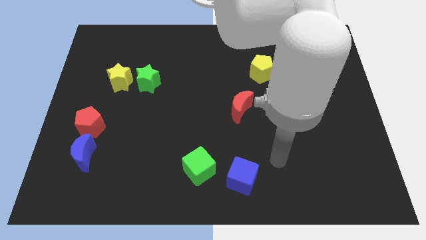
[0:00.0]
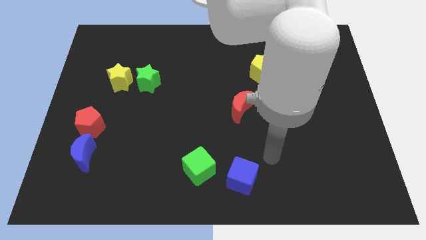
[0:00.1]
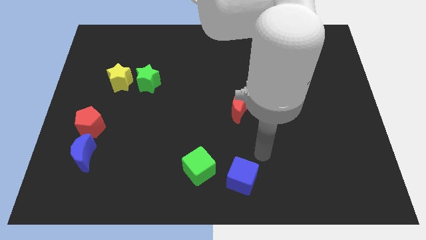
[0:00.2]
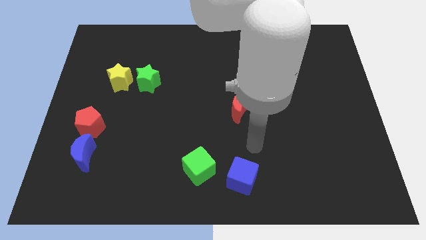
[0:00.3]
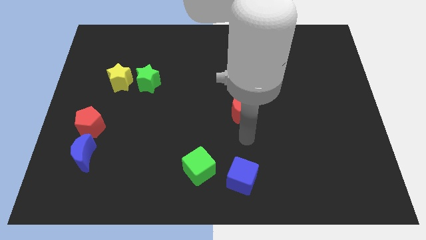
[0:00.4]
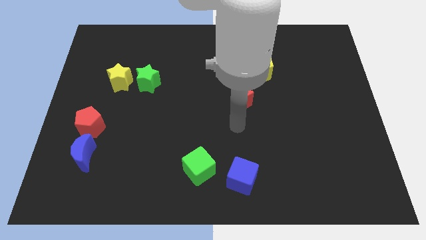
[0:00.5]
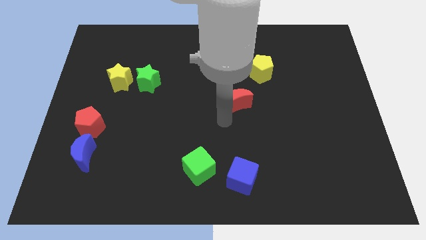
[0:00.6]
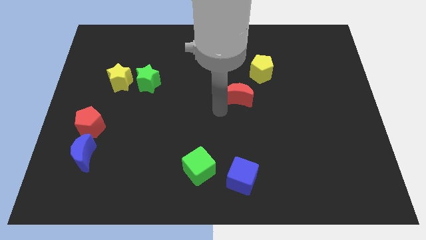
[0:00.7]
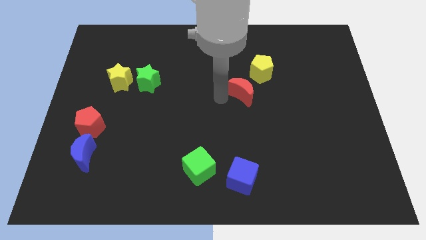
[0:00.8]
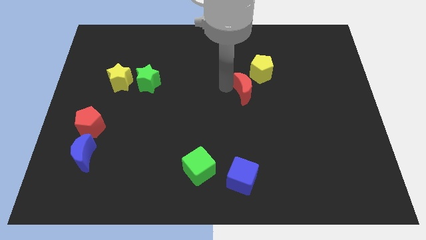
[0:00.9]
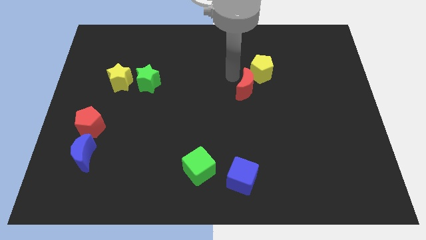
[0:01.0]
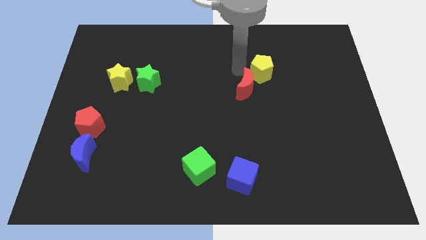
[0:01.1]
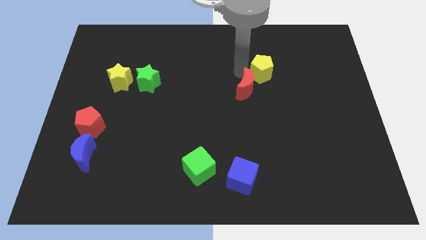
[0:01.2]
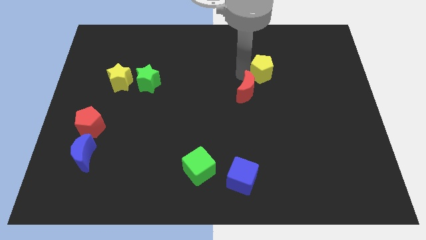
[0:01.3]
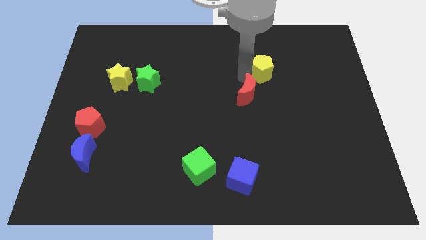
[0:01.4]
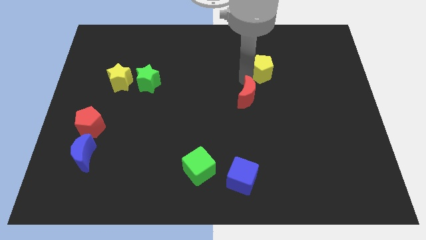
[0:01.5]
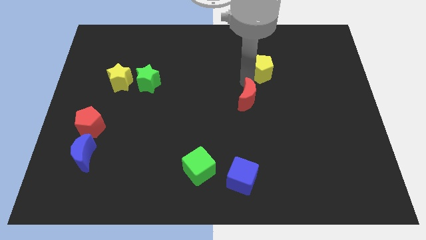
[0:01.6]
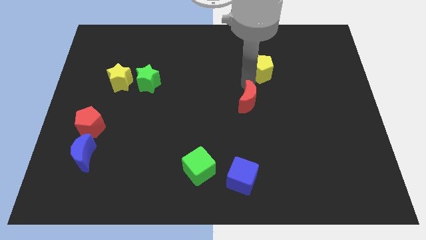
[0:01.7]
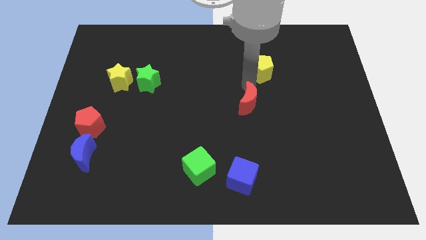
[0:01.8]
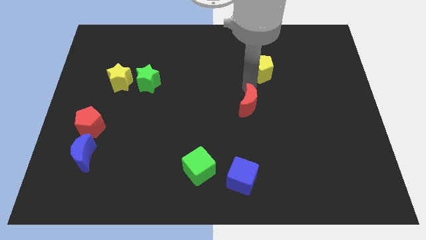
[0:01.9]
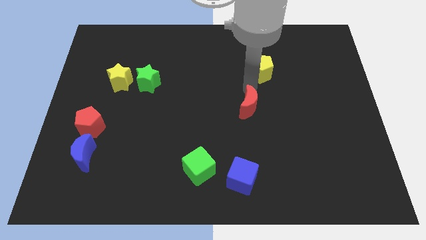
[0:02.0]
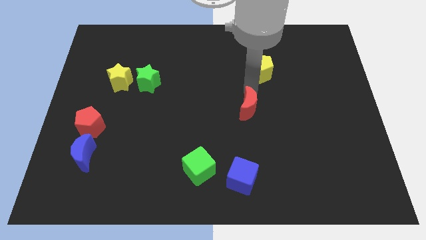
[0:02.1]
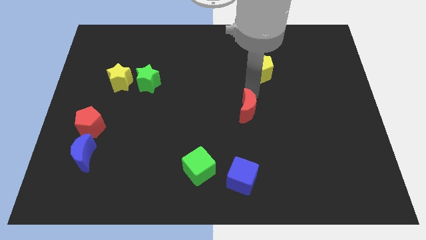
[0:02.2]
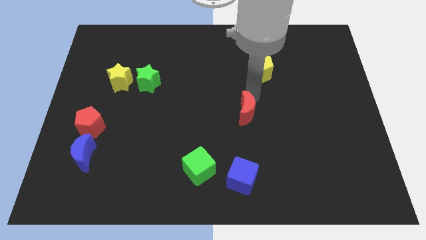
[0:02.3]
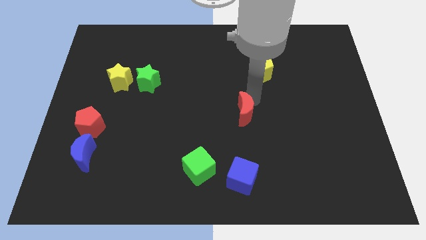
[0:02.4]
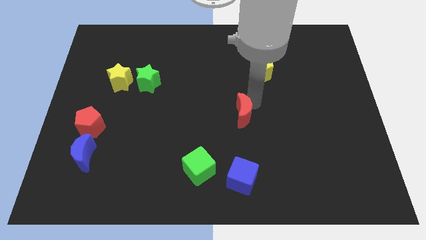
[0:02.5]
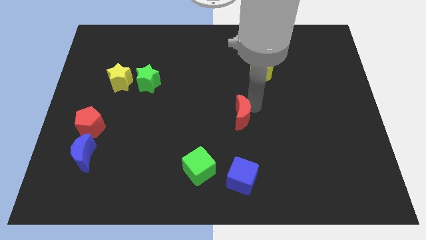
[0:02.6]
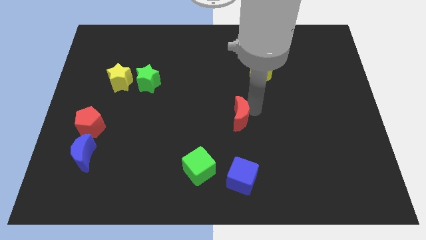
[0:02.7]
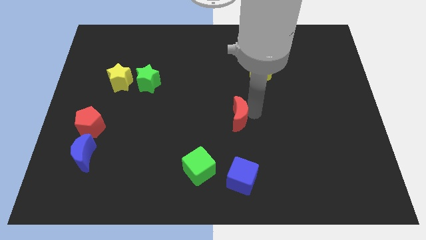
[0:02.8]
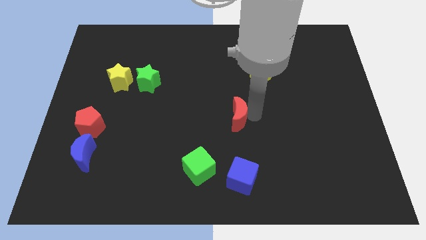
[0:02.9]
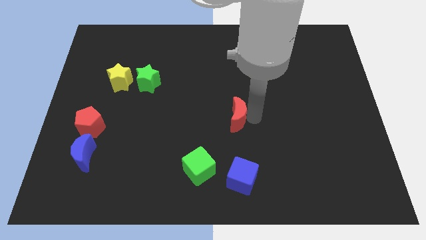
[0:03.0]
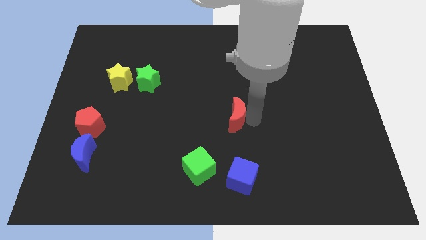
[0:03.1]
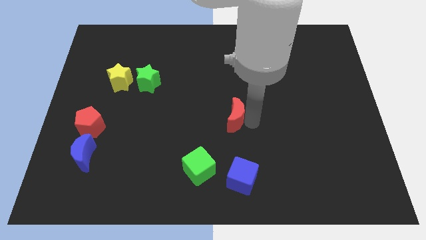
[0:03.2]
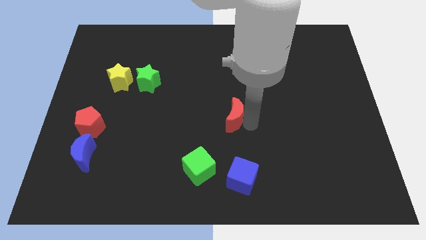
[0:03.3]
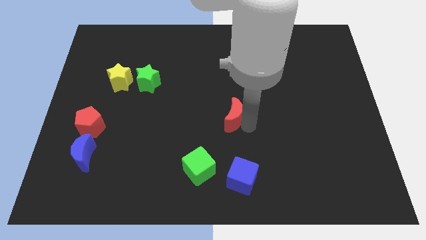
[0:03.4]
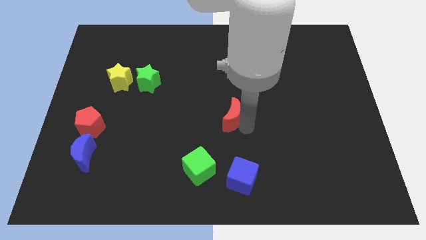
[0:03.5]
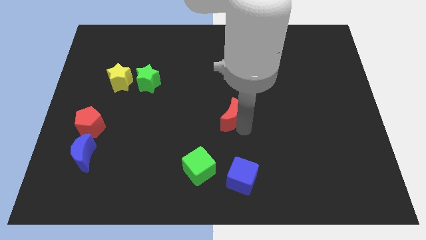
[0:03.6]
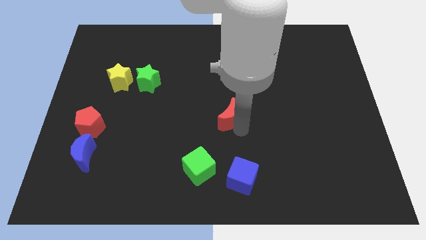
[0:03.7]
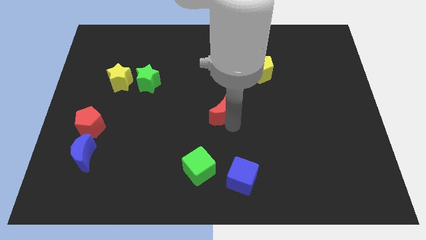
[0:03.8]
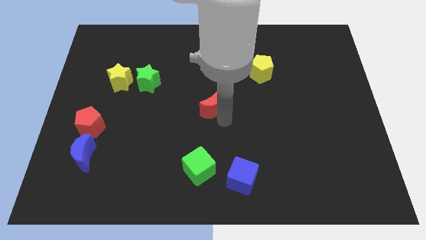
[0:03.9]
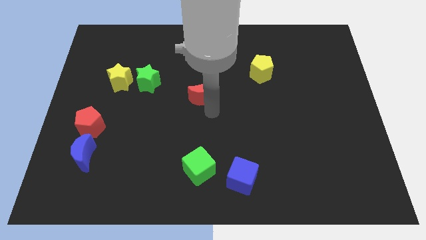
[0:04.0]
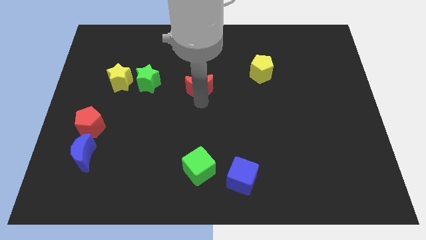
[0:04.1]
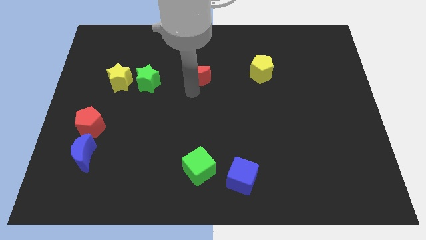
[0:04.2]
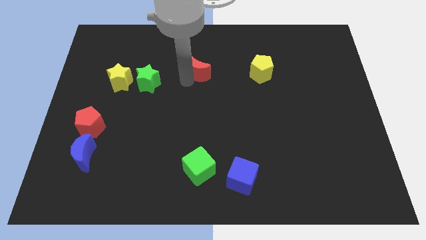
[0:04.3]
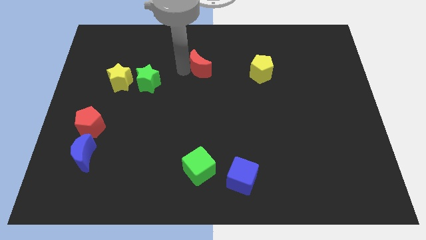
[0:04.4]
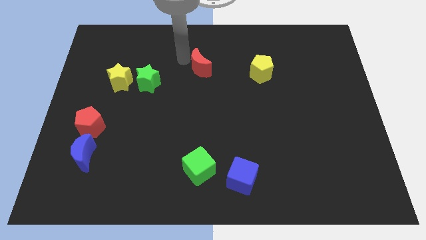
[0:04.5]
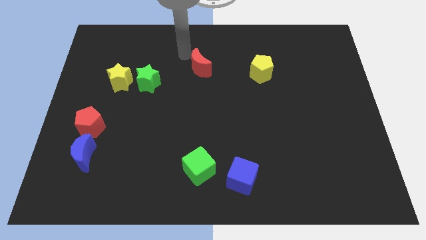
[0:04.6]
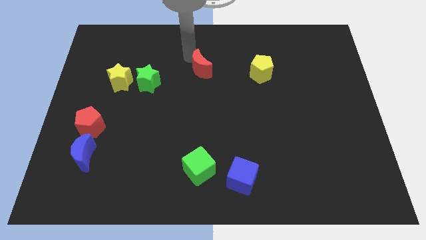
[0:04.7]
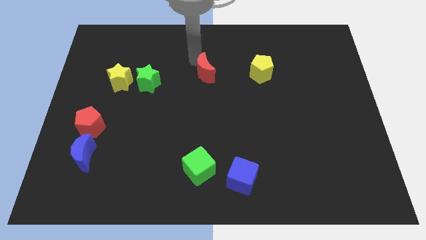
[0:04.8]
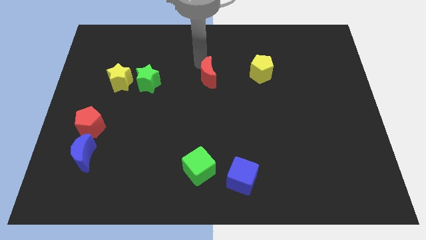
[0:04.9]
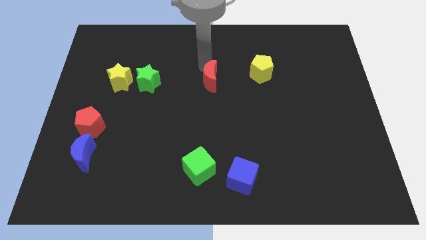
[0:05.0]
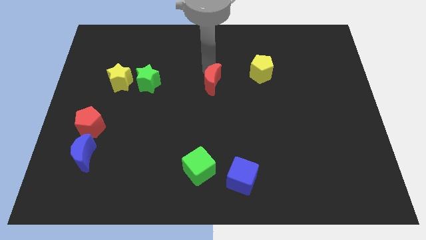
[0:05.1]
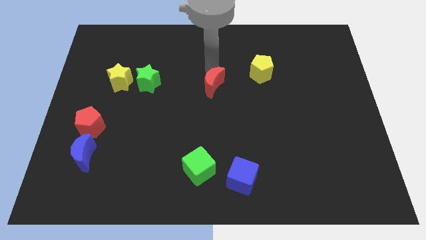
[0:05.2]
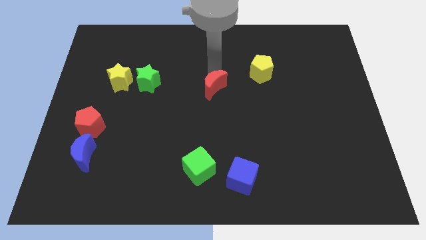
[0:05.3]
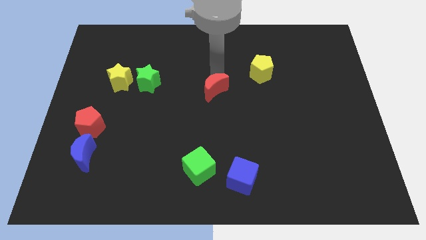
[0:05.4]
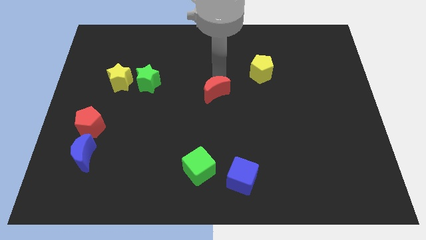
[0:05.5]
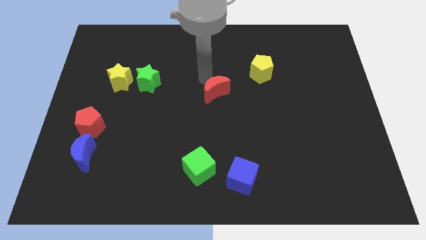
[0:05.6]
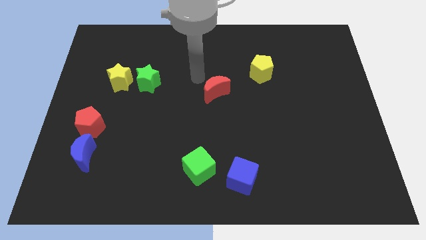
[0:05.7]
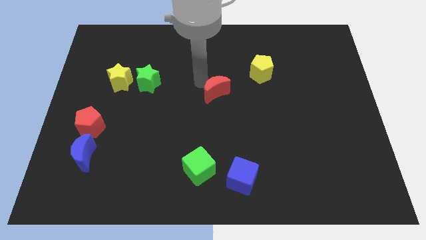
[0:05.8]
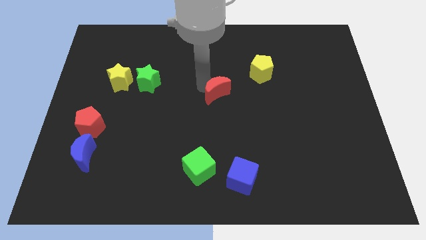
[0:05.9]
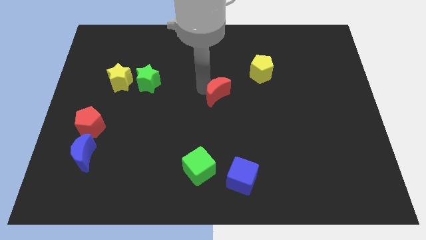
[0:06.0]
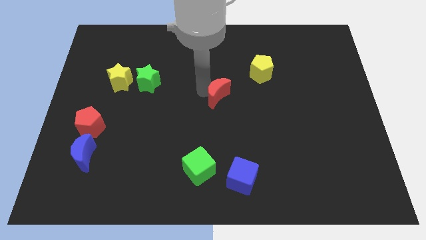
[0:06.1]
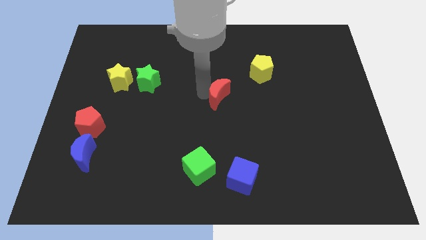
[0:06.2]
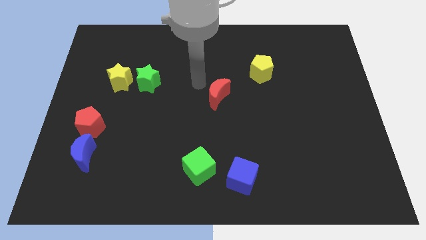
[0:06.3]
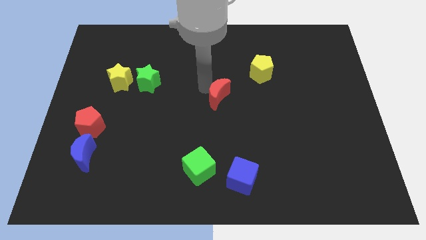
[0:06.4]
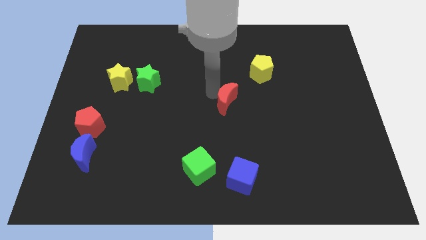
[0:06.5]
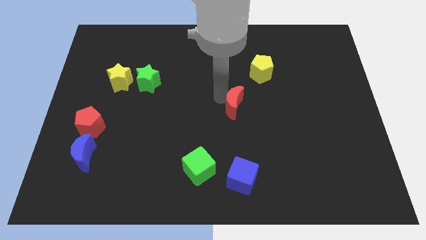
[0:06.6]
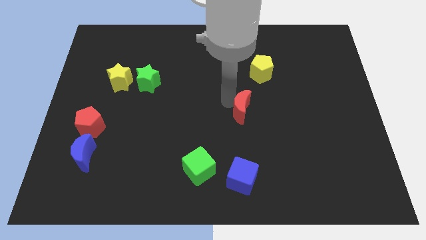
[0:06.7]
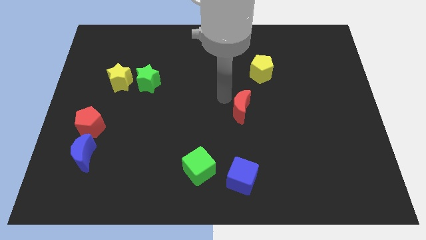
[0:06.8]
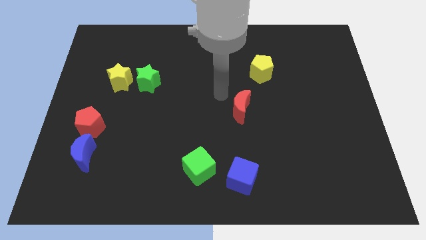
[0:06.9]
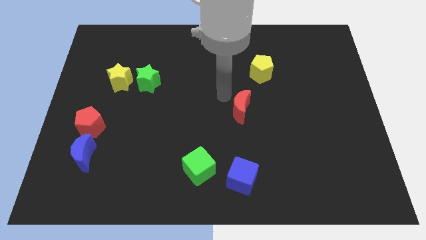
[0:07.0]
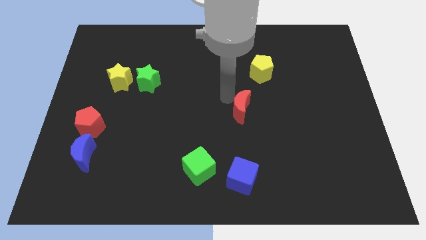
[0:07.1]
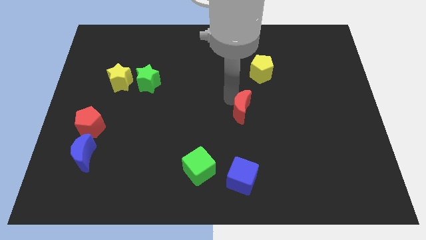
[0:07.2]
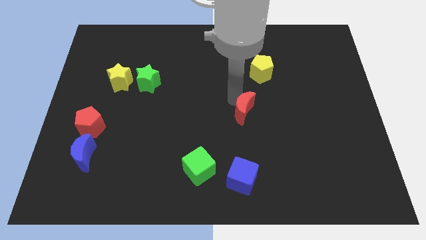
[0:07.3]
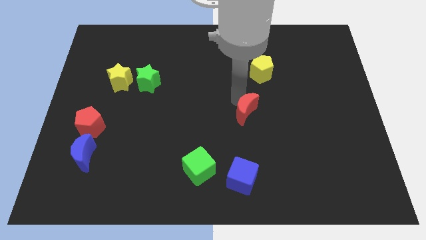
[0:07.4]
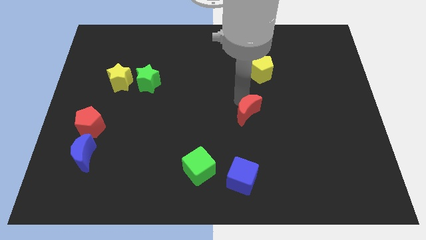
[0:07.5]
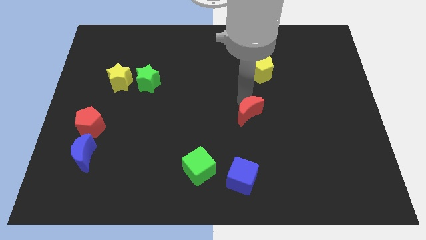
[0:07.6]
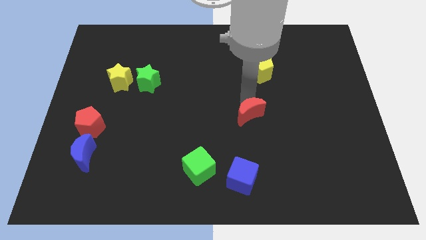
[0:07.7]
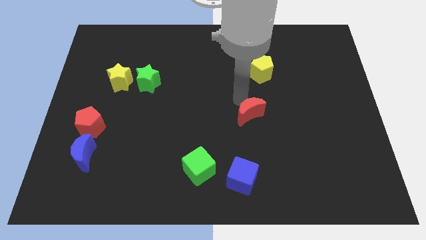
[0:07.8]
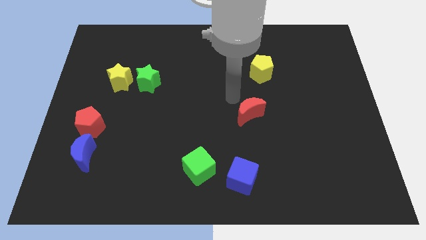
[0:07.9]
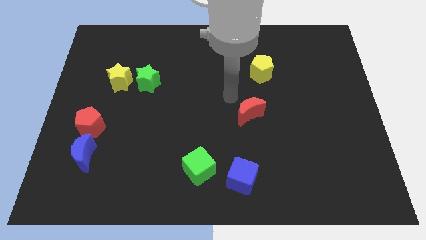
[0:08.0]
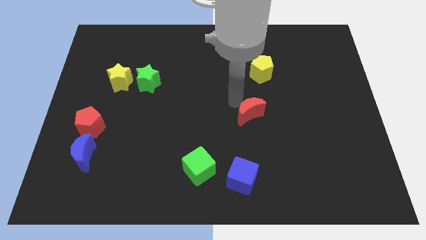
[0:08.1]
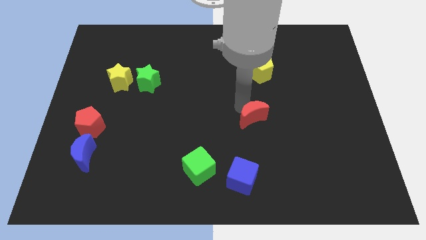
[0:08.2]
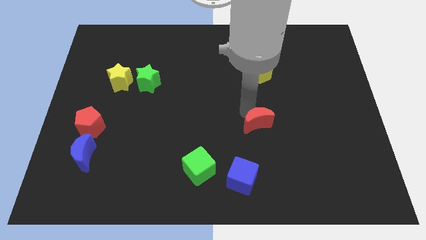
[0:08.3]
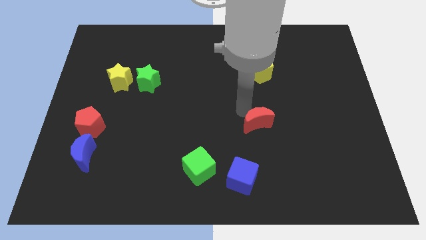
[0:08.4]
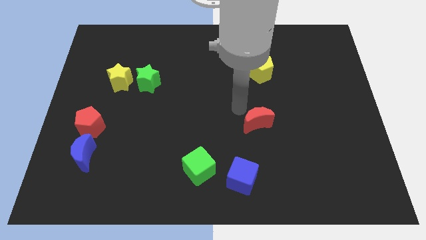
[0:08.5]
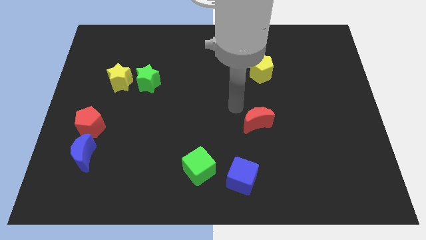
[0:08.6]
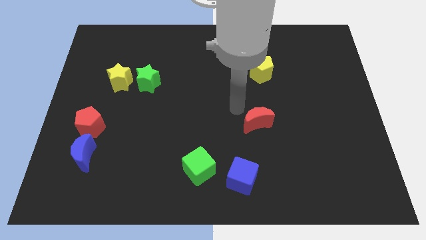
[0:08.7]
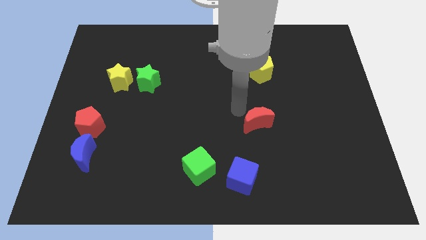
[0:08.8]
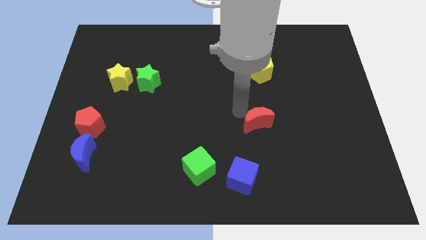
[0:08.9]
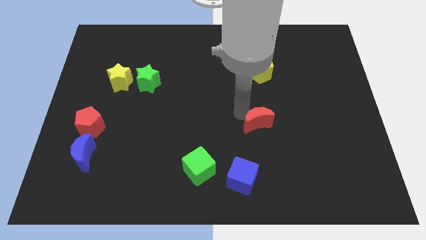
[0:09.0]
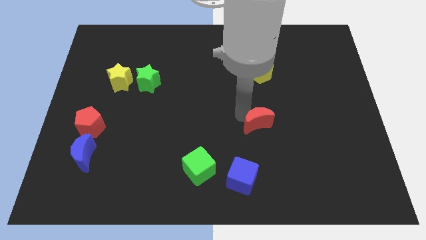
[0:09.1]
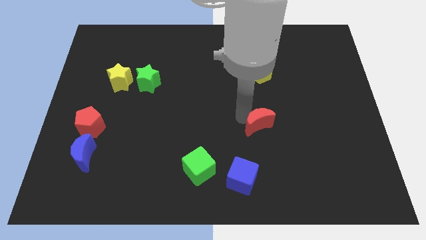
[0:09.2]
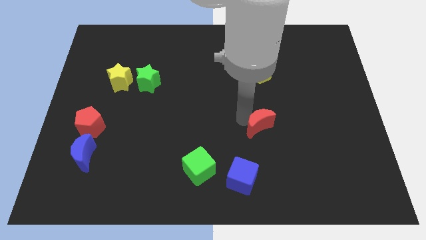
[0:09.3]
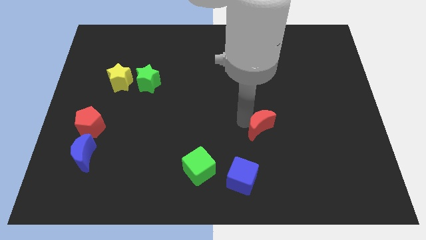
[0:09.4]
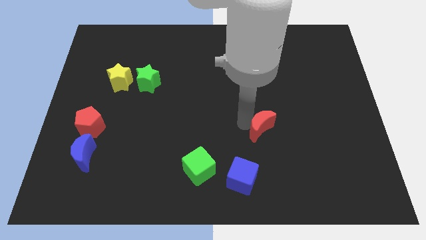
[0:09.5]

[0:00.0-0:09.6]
move the red moon a little bit downwards and then to the right
